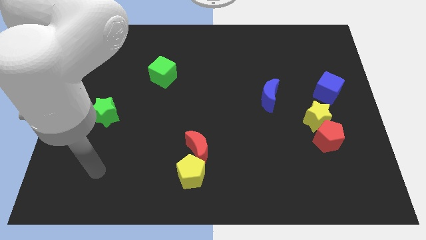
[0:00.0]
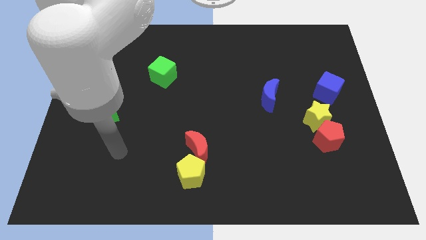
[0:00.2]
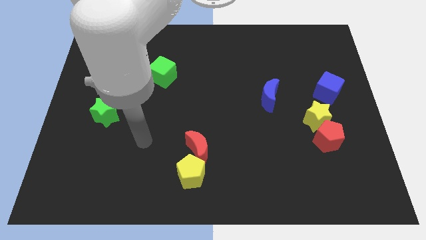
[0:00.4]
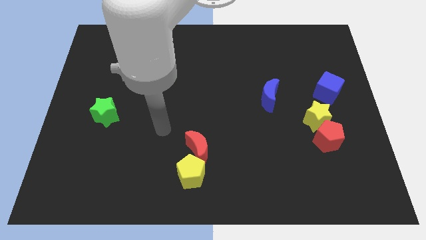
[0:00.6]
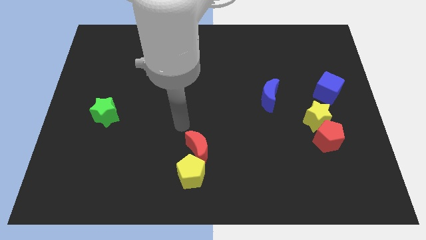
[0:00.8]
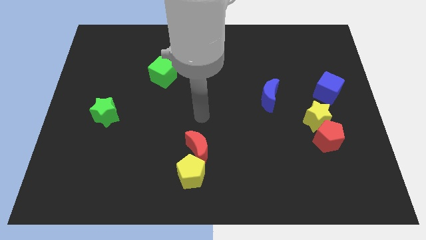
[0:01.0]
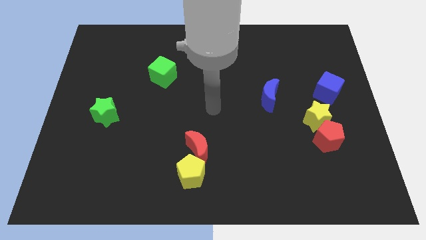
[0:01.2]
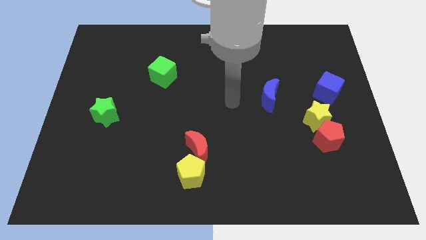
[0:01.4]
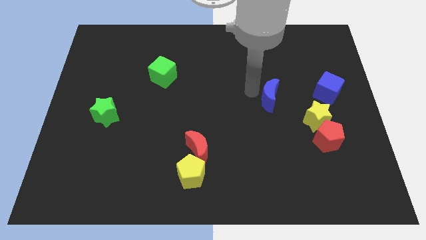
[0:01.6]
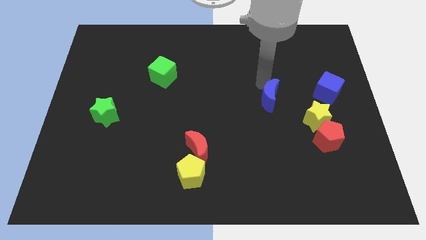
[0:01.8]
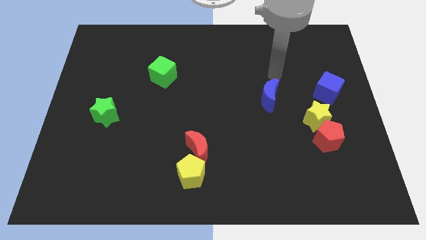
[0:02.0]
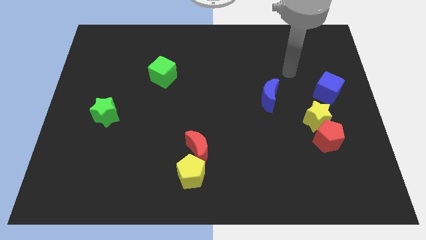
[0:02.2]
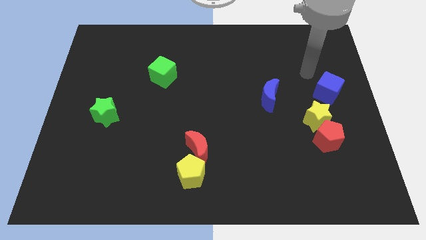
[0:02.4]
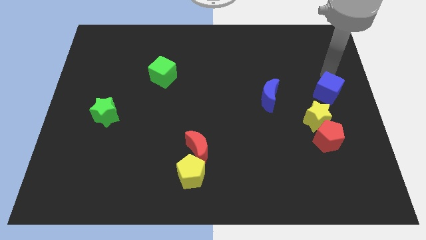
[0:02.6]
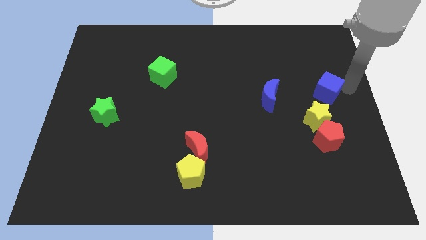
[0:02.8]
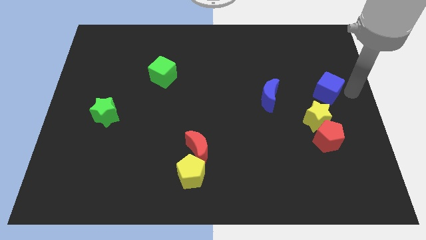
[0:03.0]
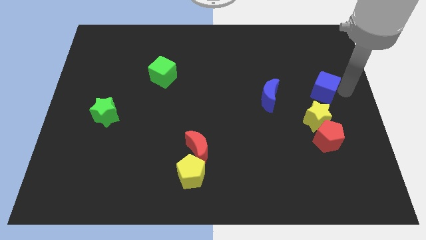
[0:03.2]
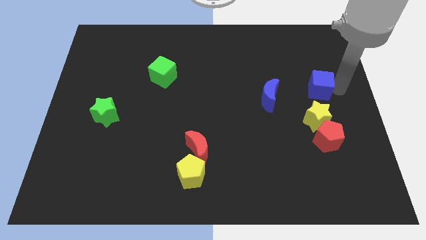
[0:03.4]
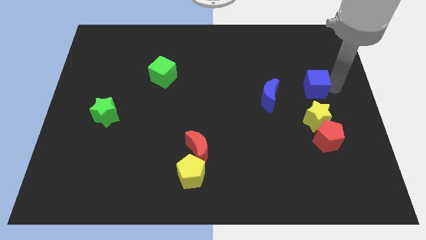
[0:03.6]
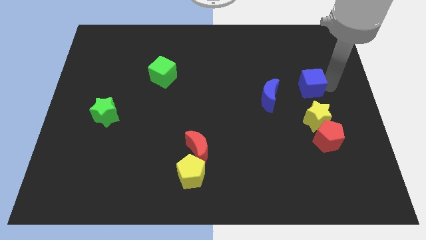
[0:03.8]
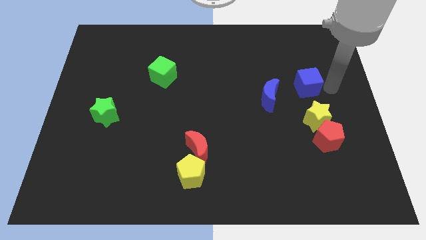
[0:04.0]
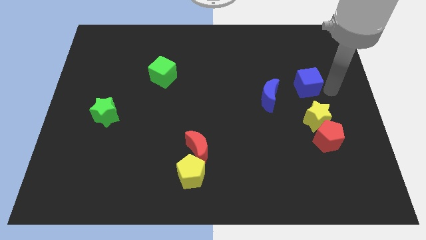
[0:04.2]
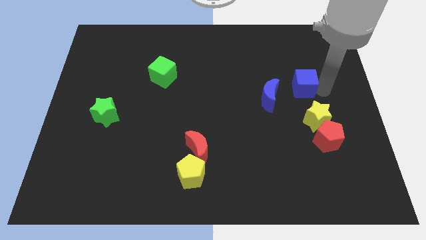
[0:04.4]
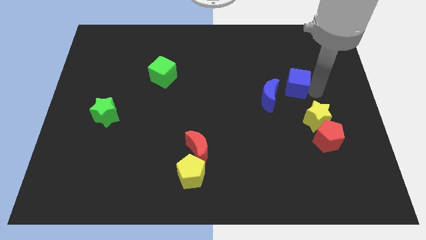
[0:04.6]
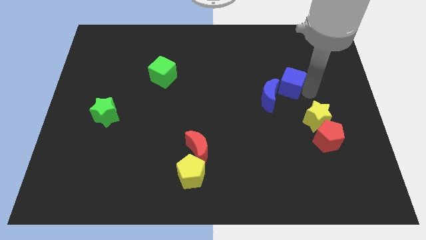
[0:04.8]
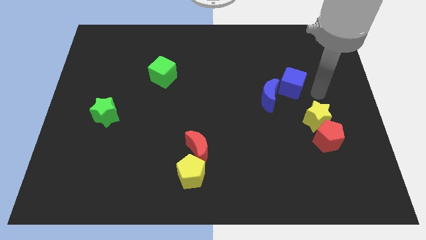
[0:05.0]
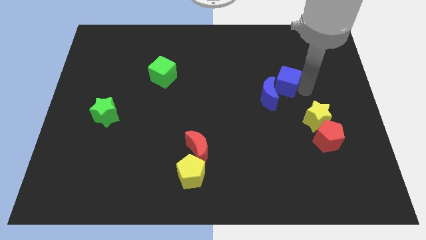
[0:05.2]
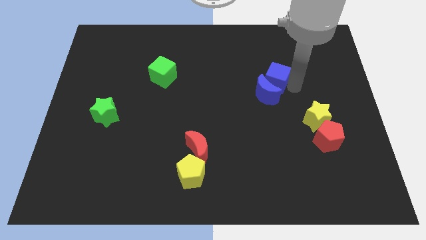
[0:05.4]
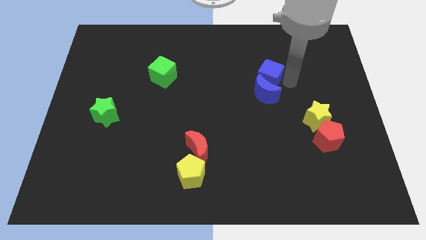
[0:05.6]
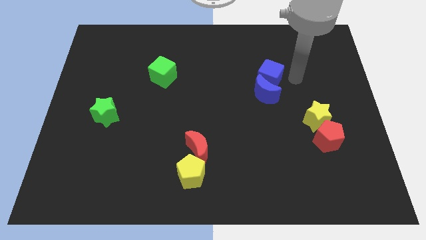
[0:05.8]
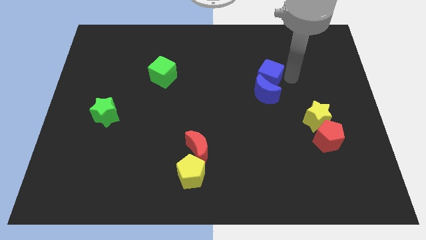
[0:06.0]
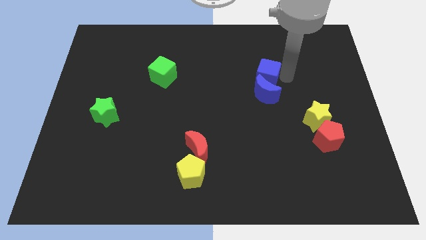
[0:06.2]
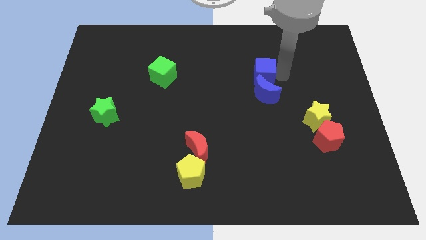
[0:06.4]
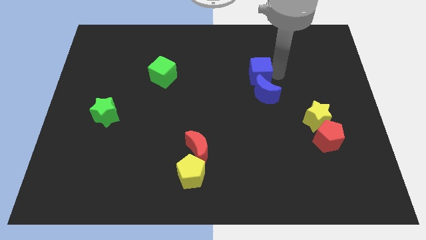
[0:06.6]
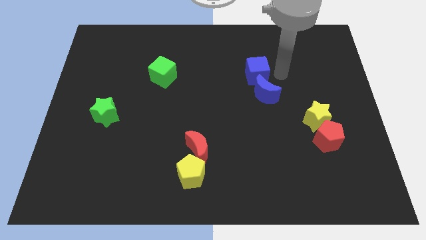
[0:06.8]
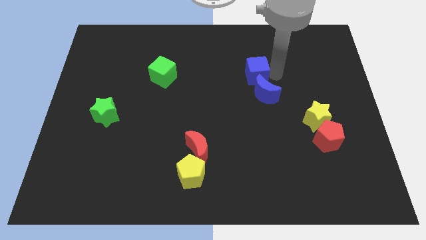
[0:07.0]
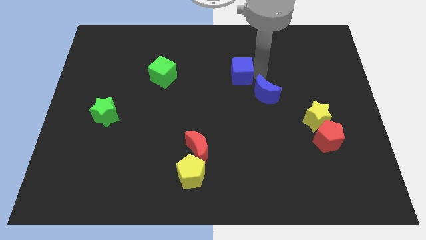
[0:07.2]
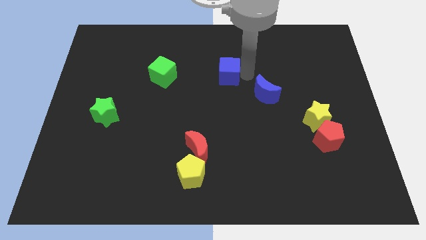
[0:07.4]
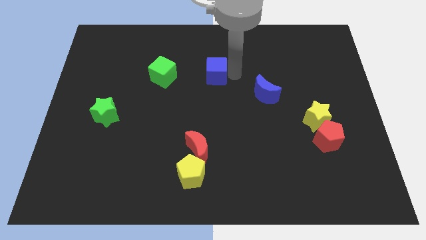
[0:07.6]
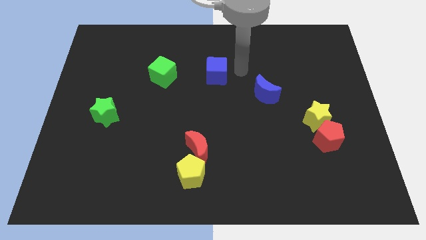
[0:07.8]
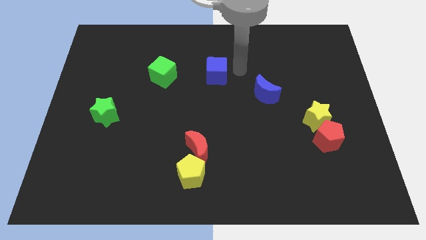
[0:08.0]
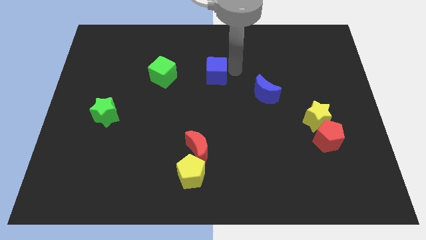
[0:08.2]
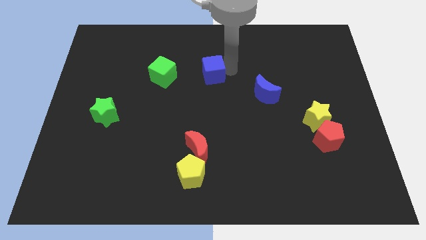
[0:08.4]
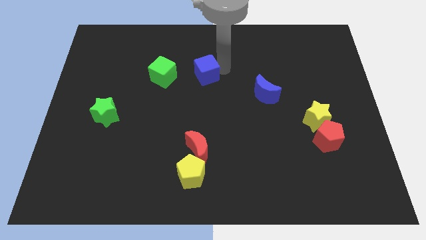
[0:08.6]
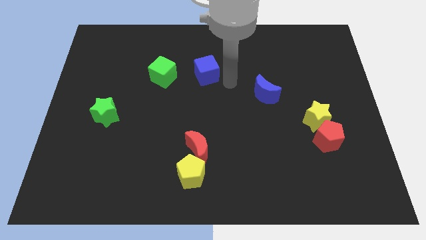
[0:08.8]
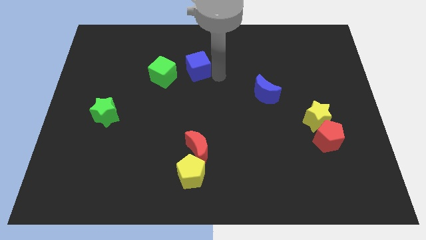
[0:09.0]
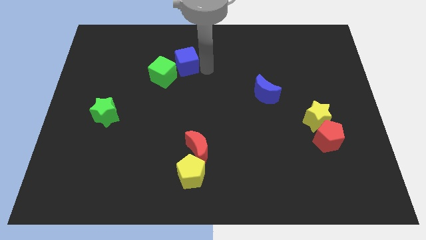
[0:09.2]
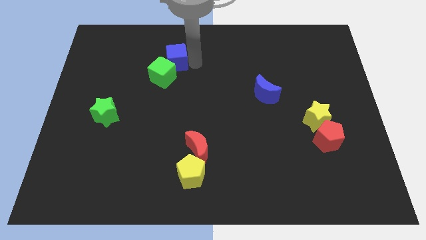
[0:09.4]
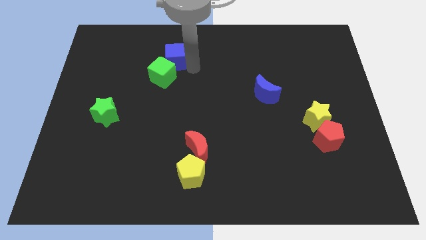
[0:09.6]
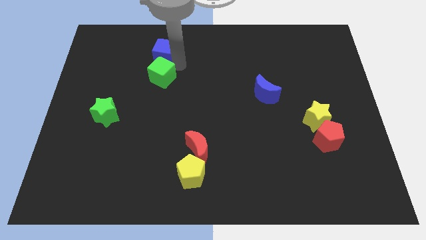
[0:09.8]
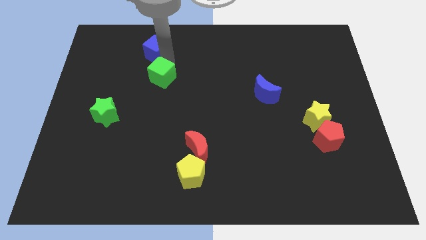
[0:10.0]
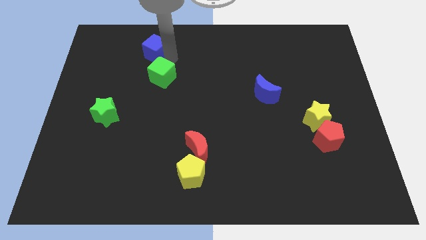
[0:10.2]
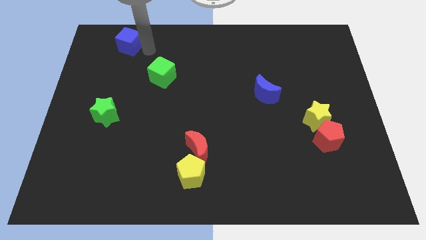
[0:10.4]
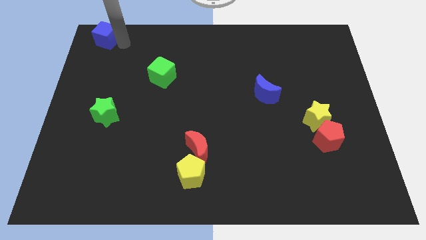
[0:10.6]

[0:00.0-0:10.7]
slide the blue cube to the top left

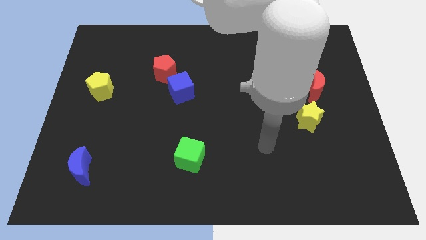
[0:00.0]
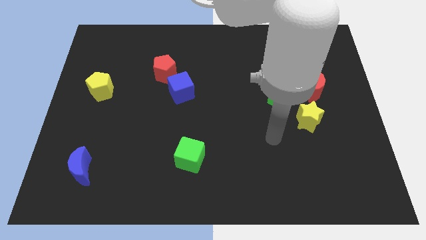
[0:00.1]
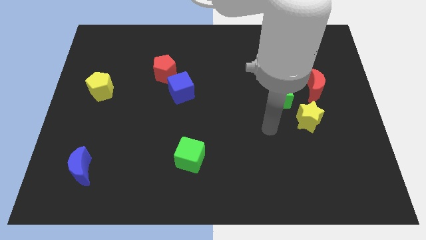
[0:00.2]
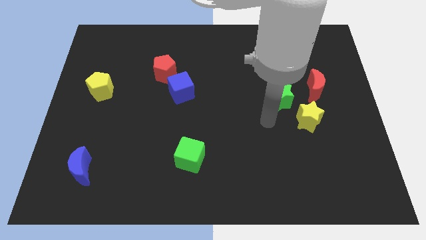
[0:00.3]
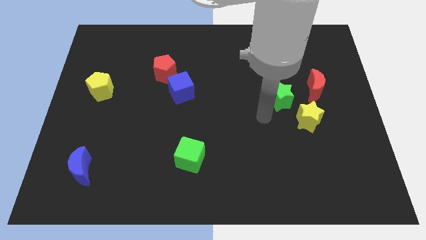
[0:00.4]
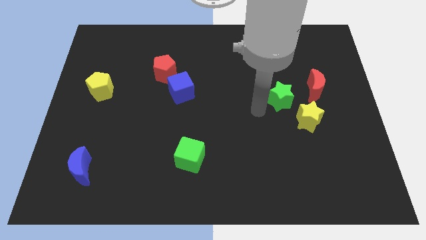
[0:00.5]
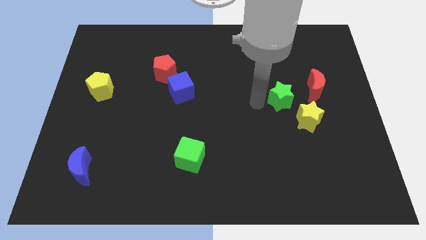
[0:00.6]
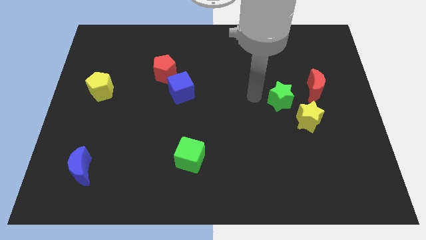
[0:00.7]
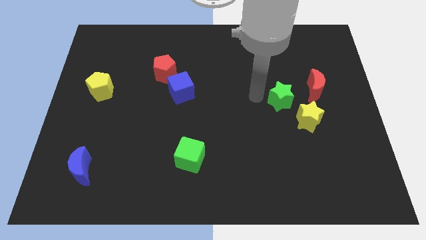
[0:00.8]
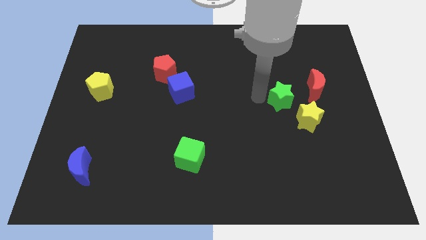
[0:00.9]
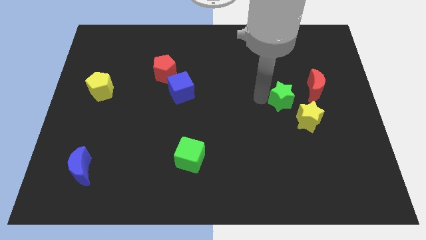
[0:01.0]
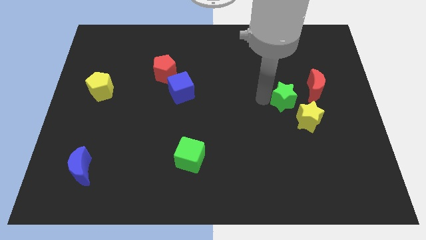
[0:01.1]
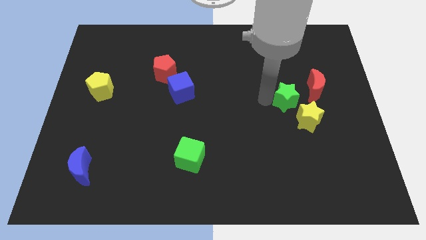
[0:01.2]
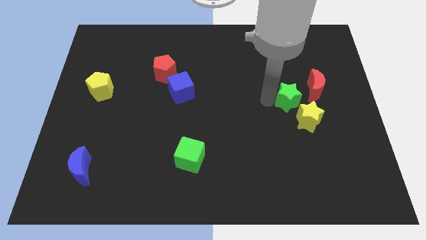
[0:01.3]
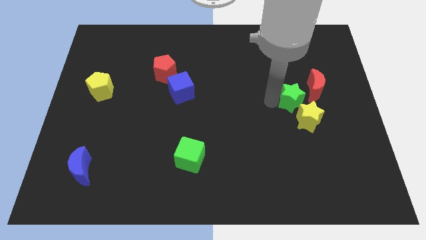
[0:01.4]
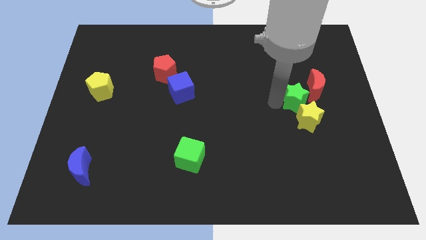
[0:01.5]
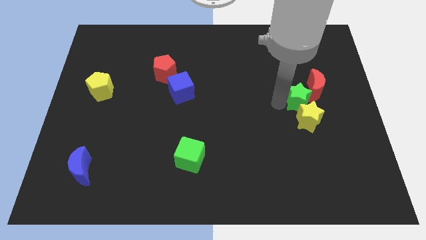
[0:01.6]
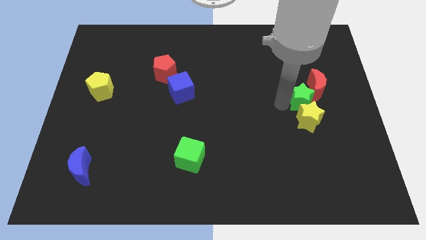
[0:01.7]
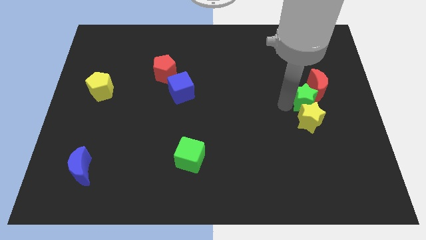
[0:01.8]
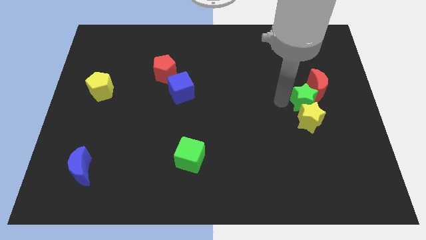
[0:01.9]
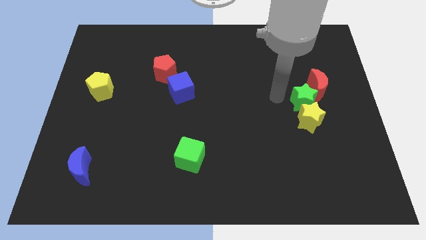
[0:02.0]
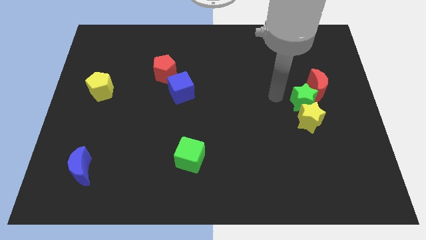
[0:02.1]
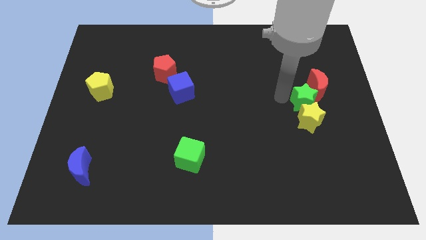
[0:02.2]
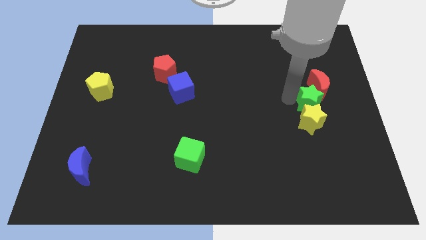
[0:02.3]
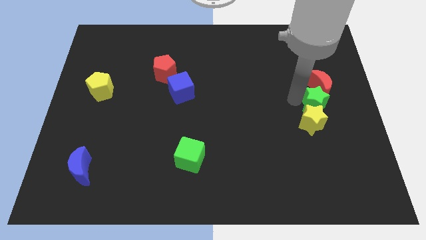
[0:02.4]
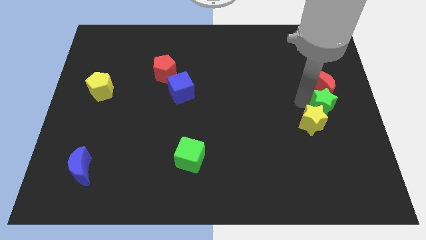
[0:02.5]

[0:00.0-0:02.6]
put the green star to the right side
